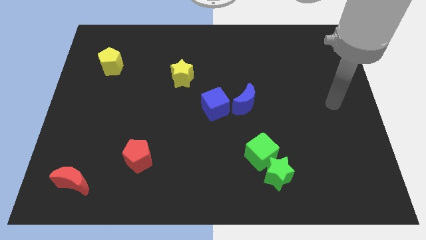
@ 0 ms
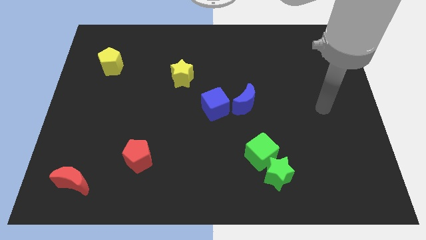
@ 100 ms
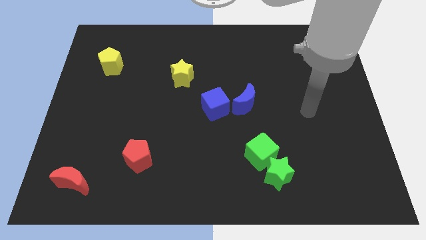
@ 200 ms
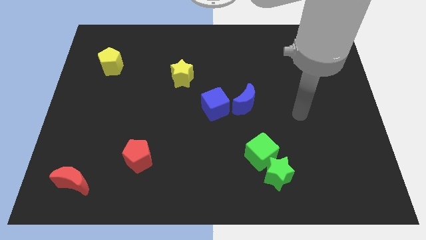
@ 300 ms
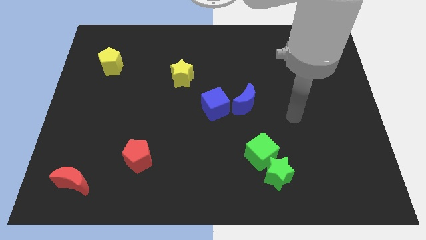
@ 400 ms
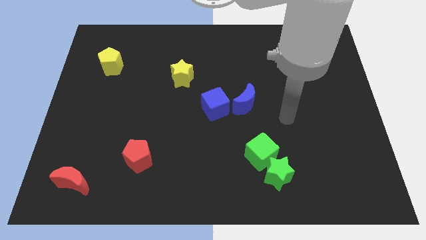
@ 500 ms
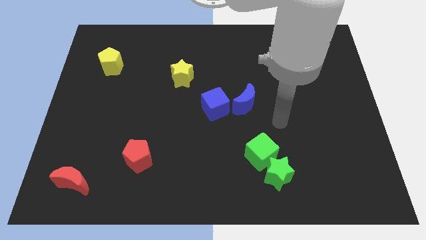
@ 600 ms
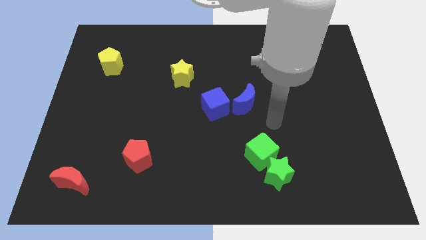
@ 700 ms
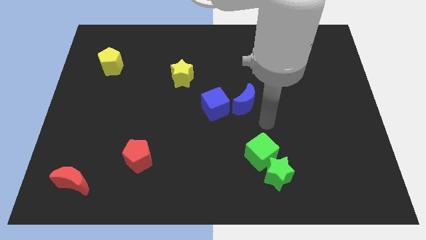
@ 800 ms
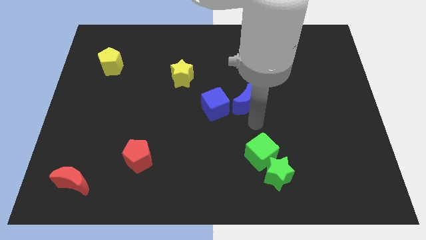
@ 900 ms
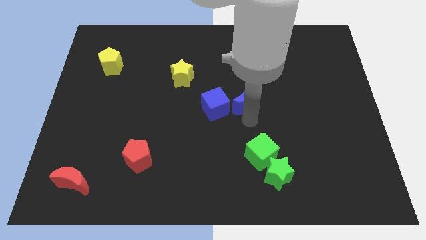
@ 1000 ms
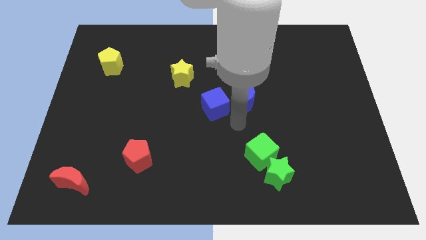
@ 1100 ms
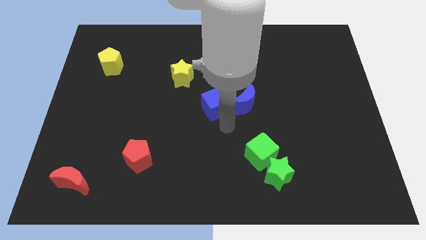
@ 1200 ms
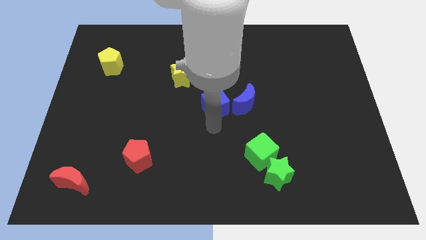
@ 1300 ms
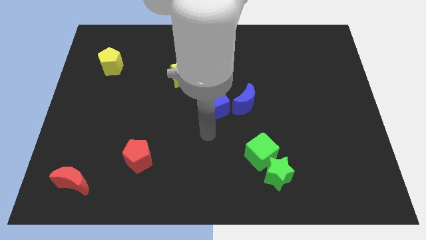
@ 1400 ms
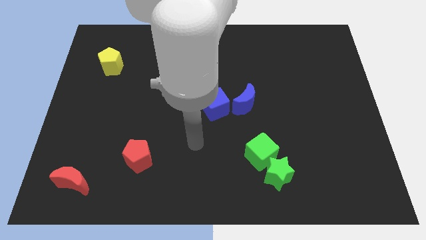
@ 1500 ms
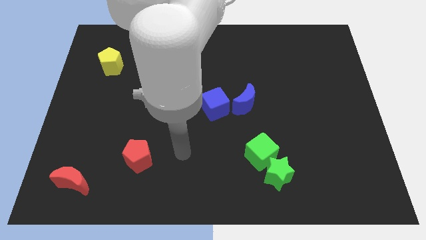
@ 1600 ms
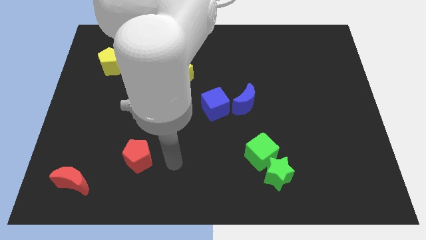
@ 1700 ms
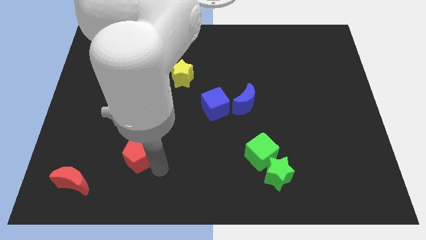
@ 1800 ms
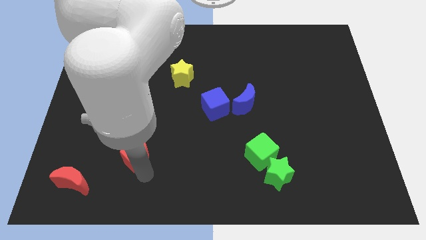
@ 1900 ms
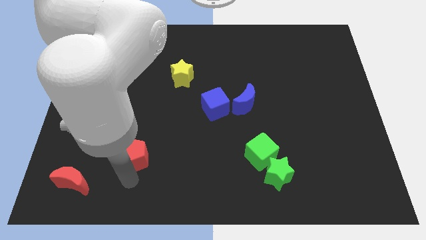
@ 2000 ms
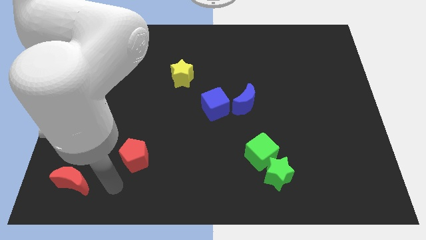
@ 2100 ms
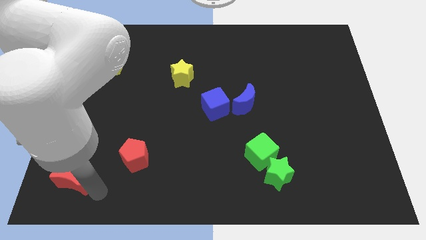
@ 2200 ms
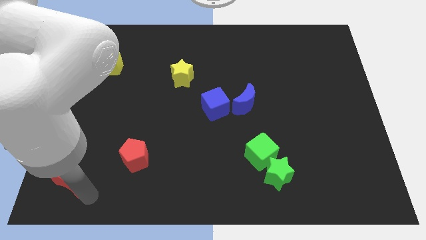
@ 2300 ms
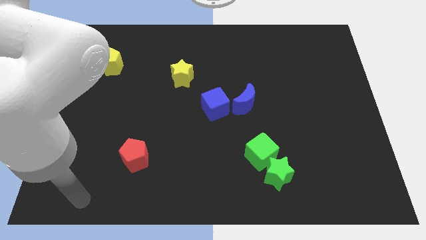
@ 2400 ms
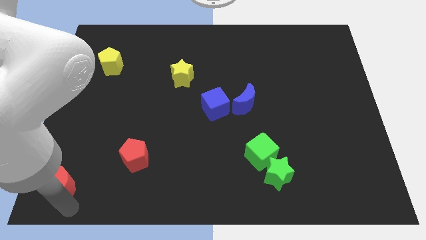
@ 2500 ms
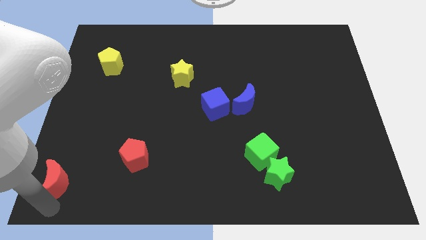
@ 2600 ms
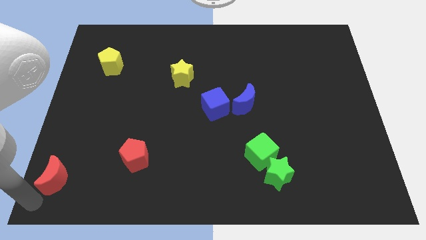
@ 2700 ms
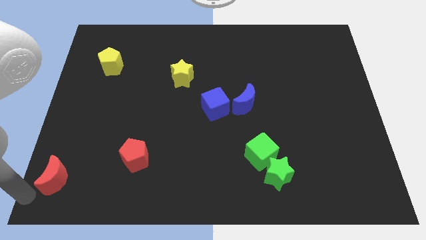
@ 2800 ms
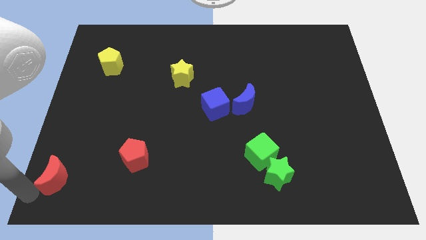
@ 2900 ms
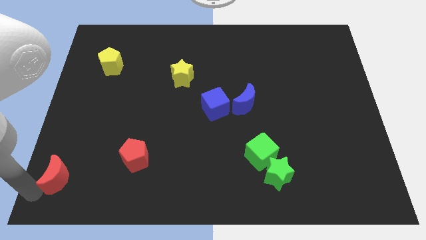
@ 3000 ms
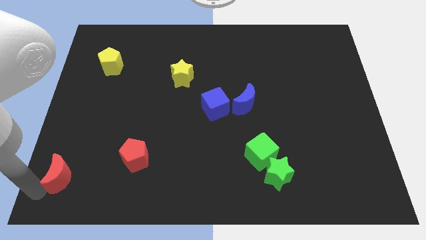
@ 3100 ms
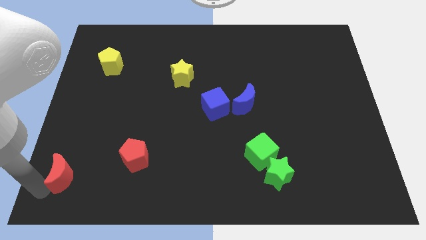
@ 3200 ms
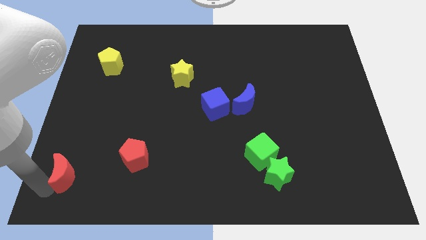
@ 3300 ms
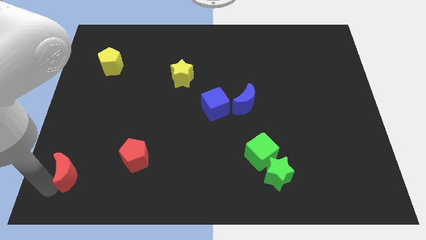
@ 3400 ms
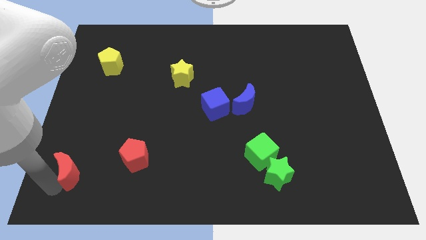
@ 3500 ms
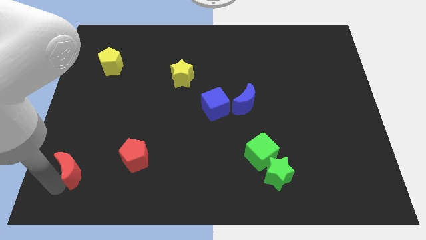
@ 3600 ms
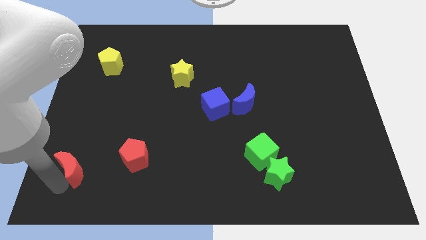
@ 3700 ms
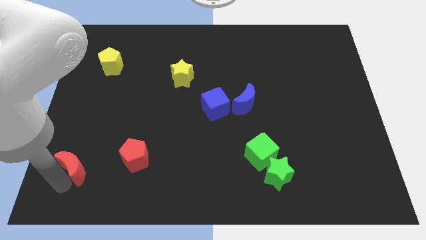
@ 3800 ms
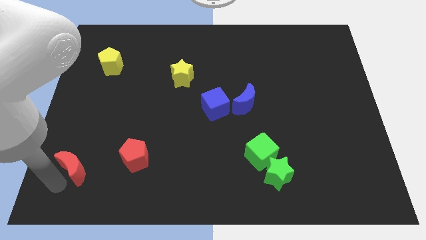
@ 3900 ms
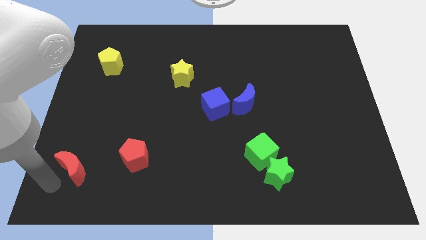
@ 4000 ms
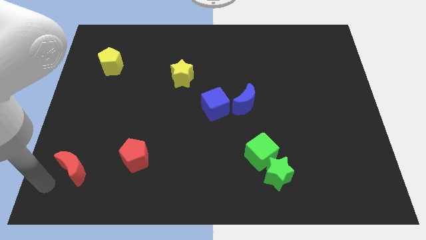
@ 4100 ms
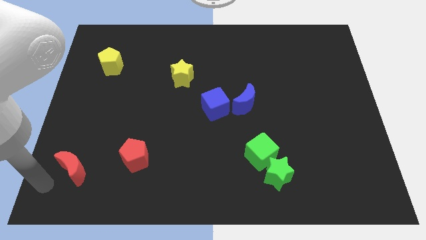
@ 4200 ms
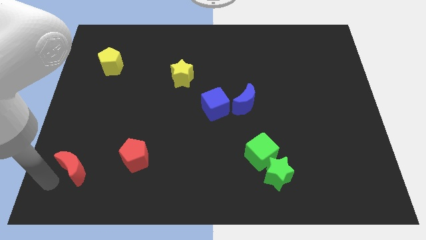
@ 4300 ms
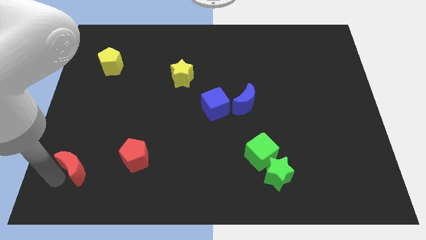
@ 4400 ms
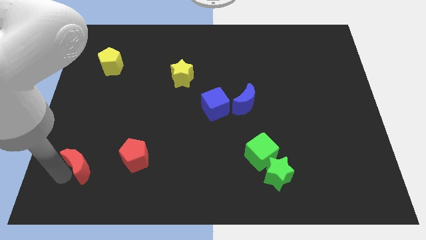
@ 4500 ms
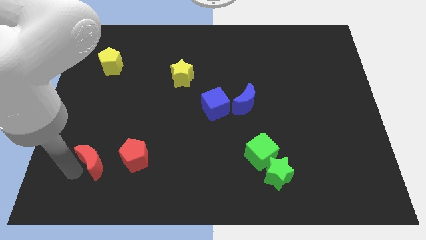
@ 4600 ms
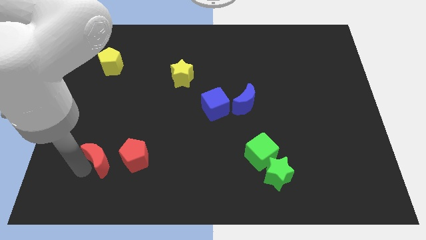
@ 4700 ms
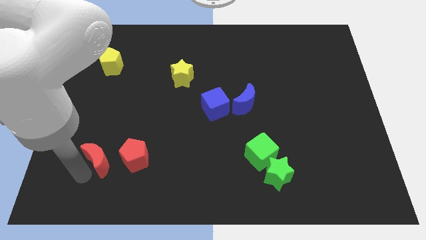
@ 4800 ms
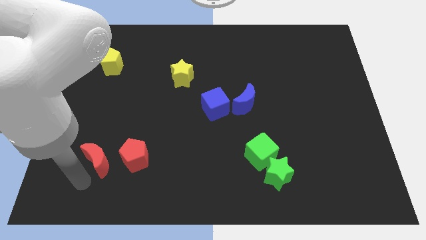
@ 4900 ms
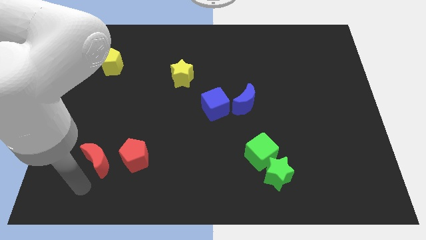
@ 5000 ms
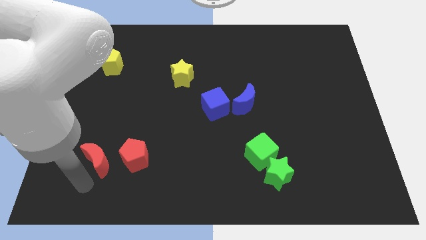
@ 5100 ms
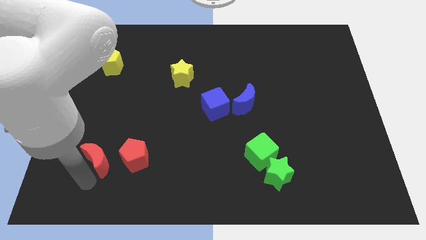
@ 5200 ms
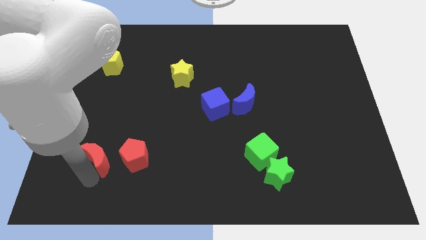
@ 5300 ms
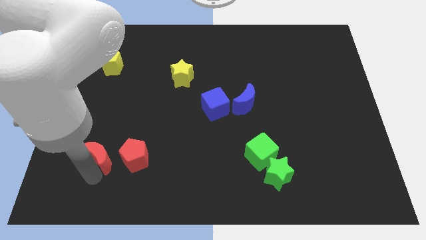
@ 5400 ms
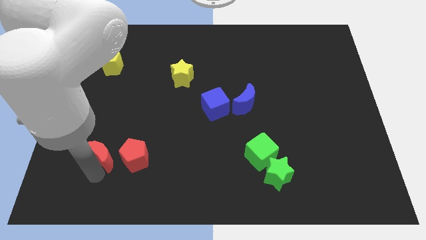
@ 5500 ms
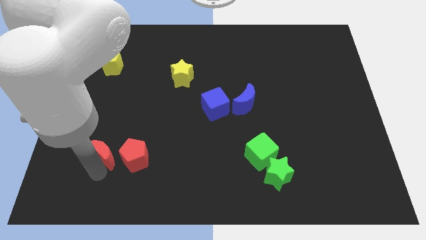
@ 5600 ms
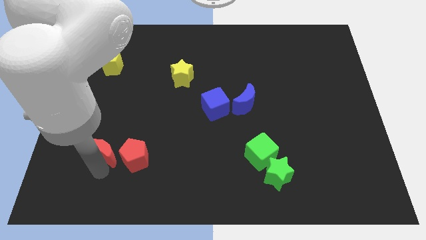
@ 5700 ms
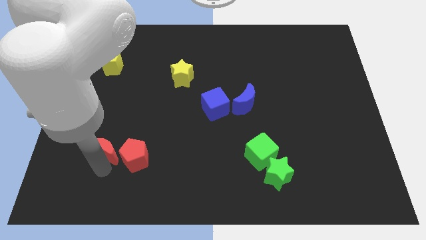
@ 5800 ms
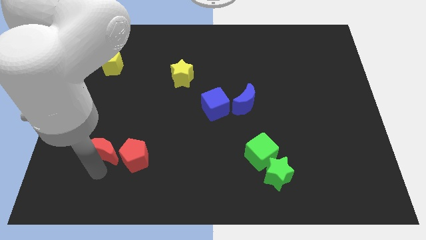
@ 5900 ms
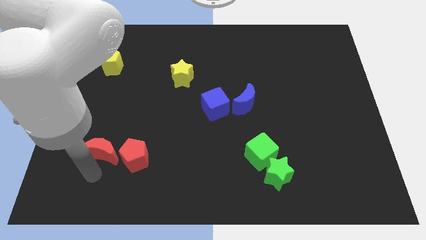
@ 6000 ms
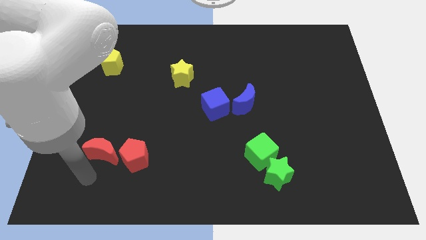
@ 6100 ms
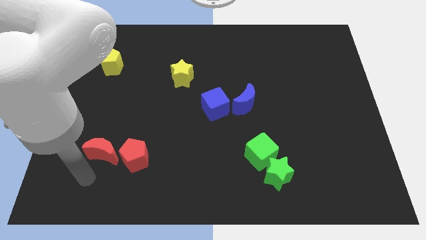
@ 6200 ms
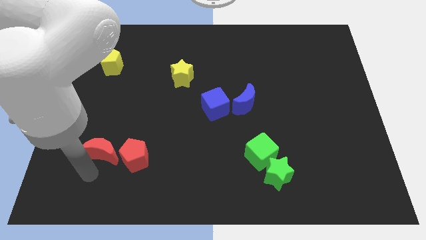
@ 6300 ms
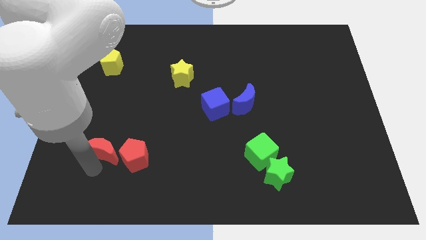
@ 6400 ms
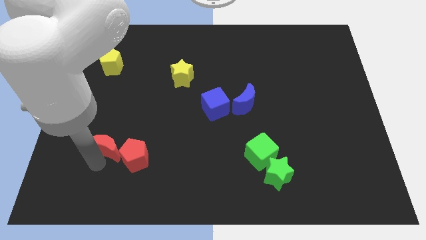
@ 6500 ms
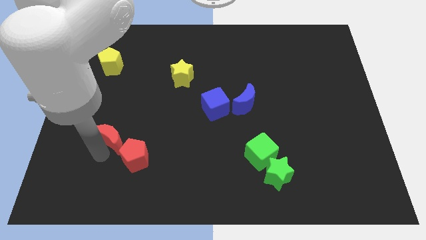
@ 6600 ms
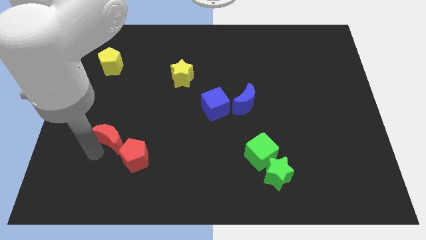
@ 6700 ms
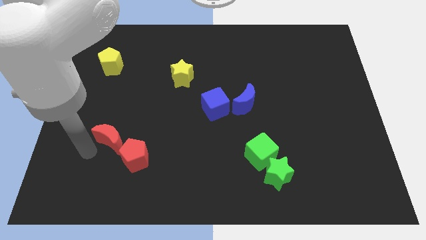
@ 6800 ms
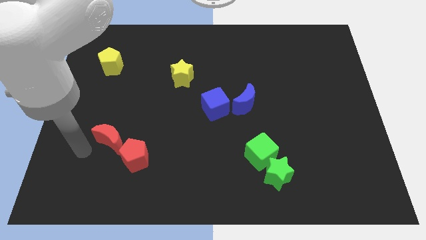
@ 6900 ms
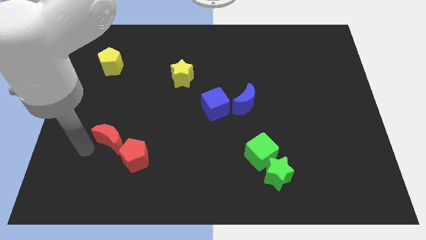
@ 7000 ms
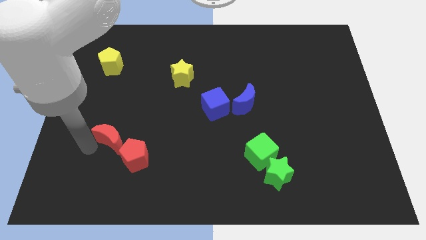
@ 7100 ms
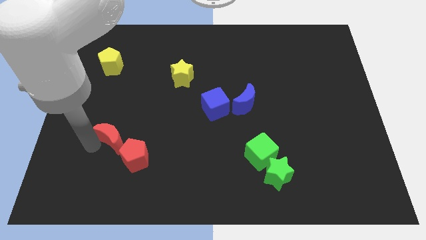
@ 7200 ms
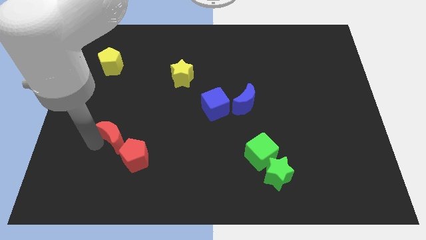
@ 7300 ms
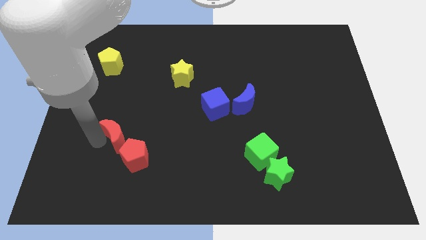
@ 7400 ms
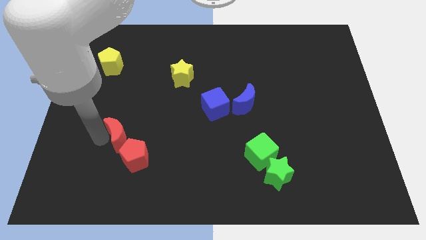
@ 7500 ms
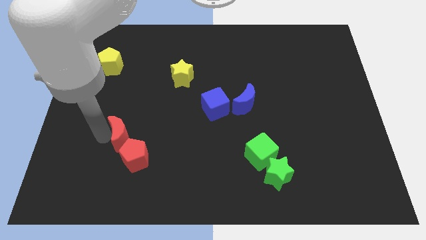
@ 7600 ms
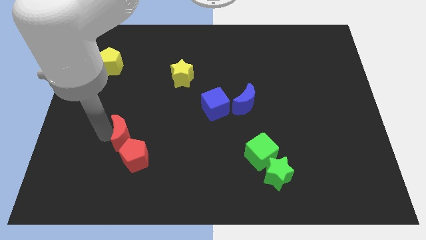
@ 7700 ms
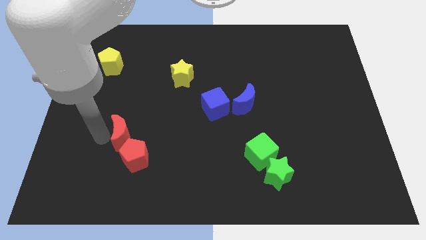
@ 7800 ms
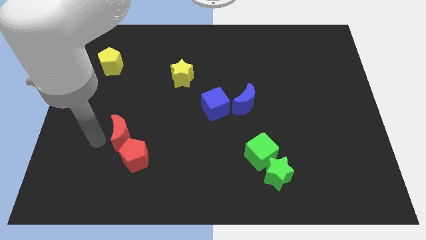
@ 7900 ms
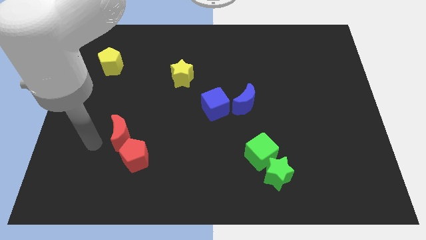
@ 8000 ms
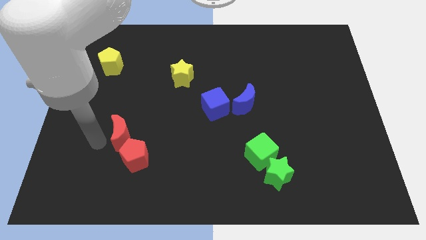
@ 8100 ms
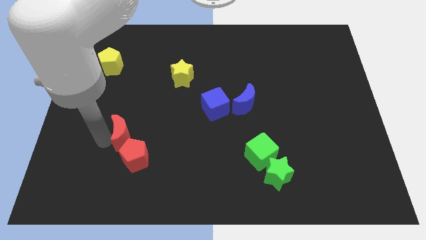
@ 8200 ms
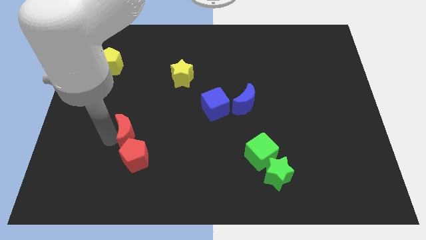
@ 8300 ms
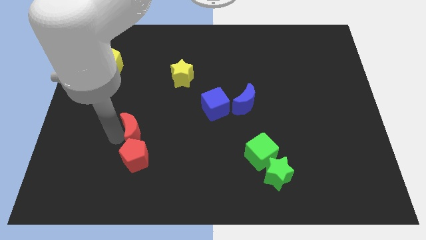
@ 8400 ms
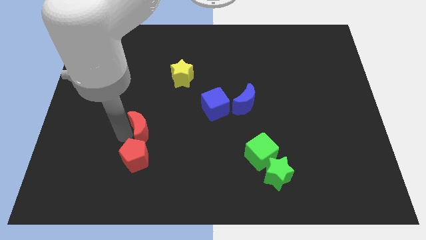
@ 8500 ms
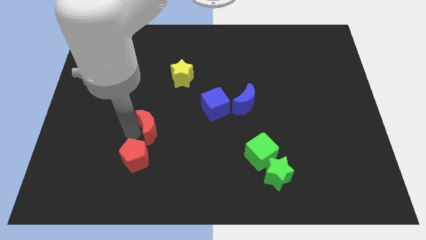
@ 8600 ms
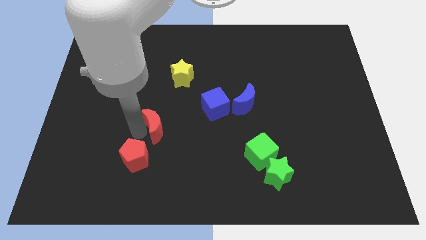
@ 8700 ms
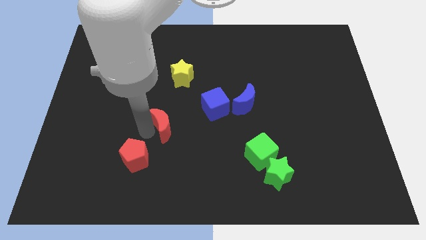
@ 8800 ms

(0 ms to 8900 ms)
push the red moon below the yellow star
